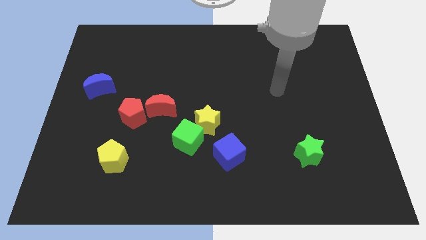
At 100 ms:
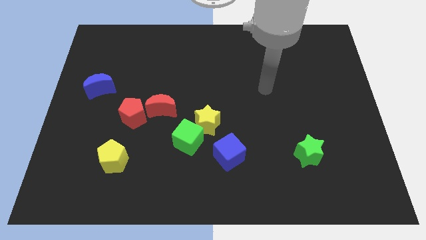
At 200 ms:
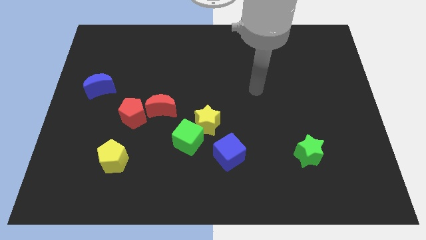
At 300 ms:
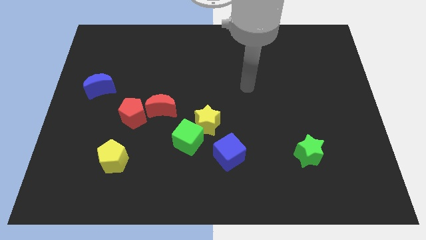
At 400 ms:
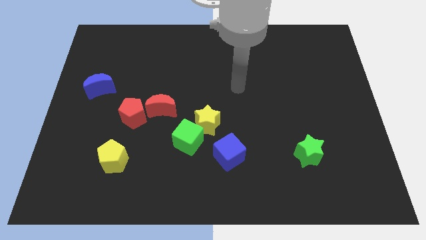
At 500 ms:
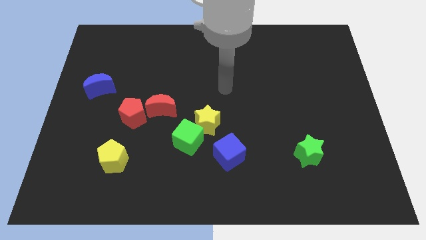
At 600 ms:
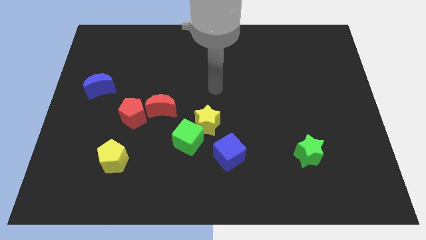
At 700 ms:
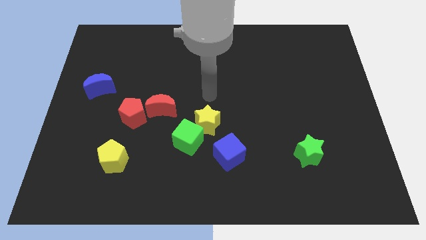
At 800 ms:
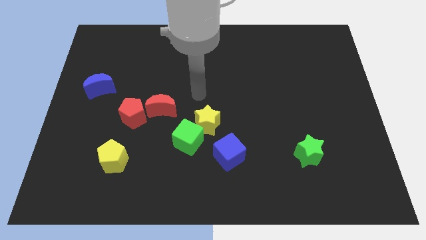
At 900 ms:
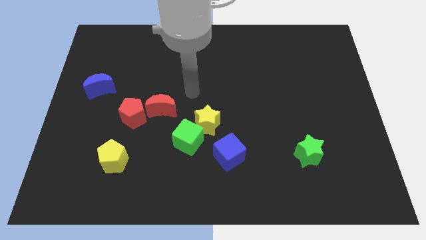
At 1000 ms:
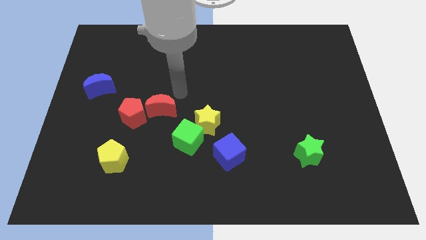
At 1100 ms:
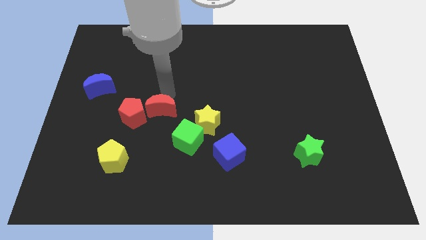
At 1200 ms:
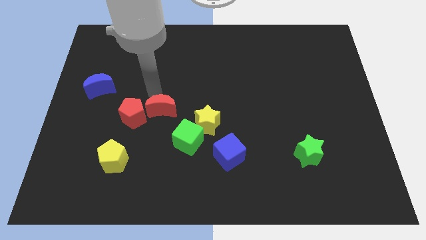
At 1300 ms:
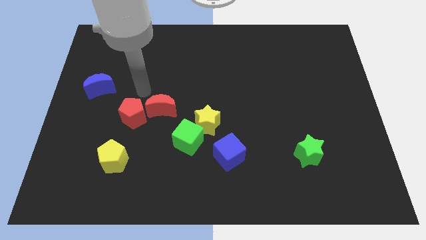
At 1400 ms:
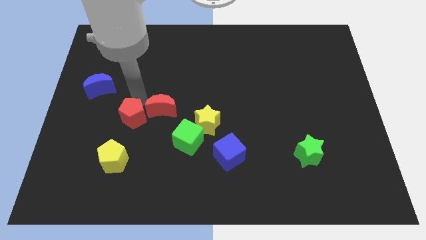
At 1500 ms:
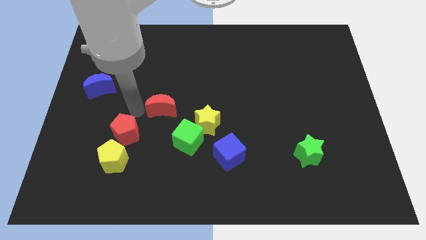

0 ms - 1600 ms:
separate the red moon from the red pentagon

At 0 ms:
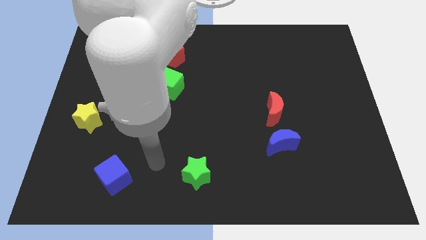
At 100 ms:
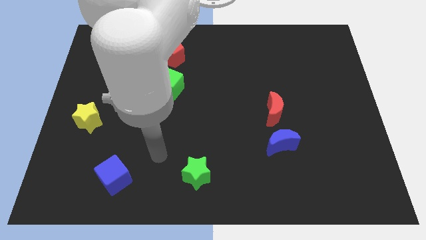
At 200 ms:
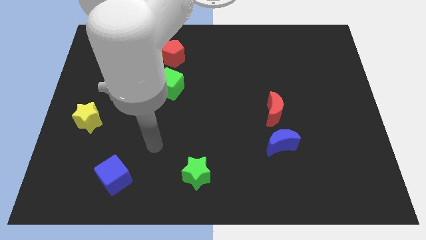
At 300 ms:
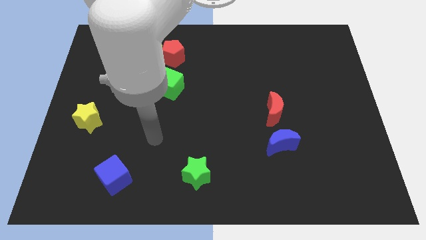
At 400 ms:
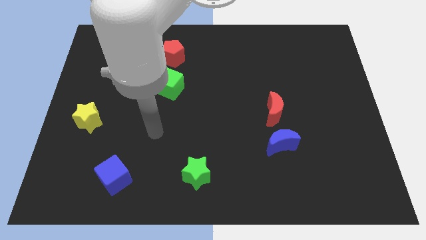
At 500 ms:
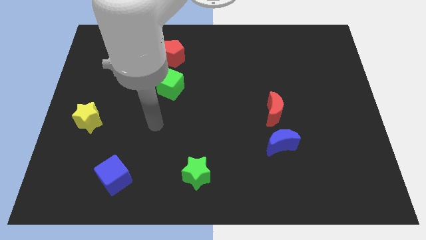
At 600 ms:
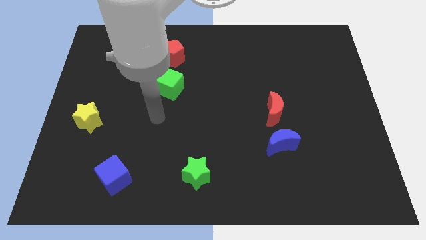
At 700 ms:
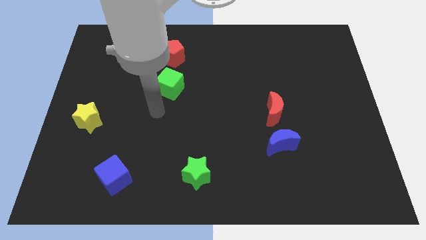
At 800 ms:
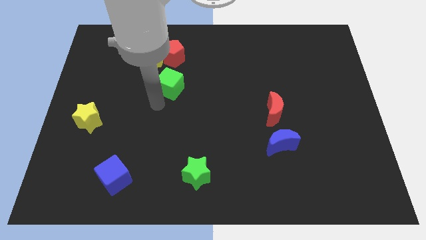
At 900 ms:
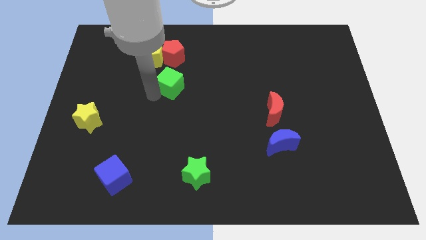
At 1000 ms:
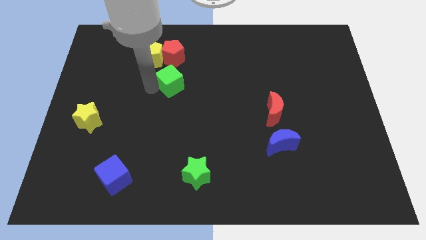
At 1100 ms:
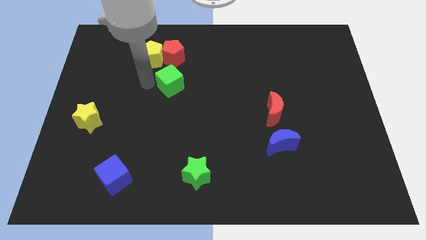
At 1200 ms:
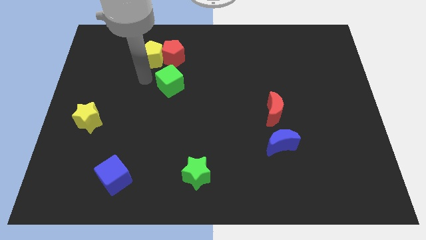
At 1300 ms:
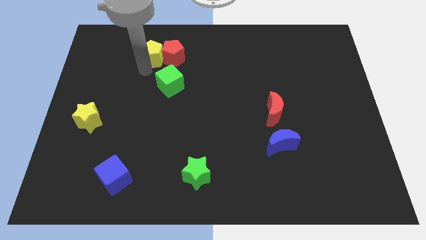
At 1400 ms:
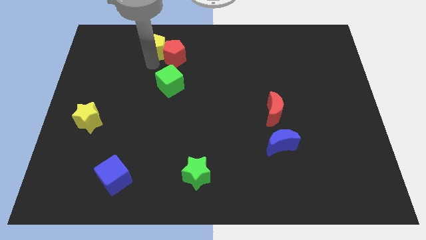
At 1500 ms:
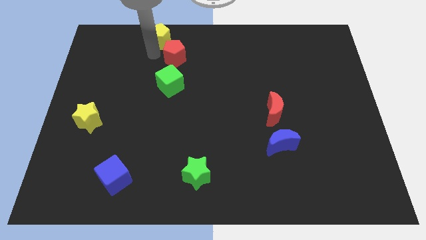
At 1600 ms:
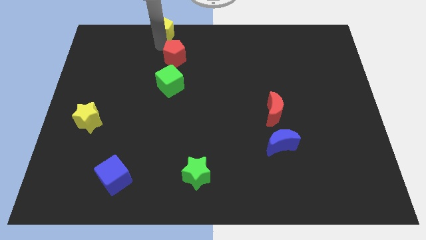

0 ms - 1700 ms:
pull the red pentagon apart from the yellow pentagon

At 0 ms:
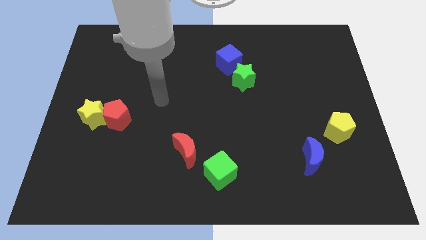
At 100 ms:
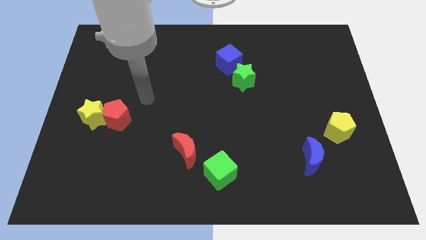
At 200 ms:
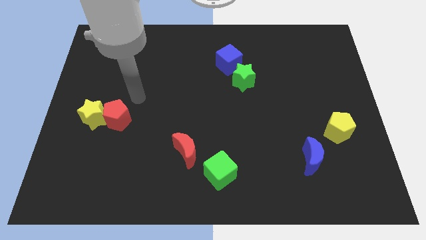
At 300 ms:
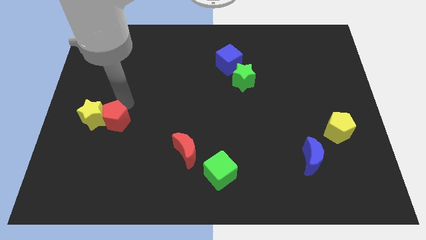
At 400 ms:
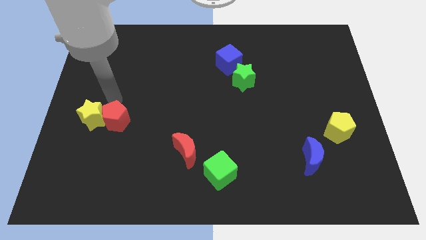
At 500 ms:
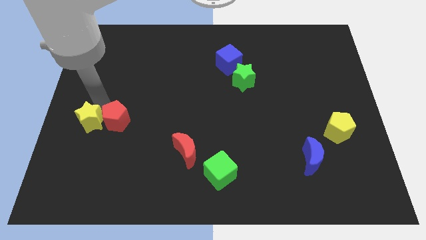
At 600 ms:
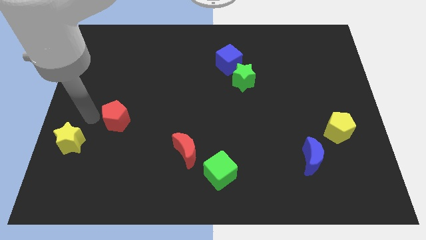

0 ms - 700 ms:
separate the red pentagon from the yellow star

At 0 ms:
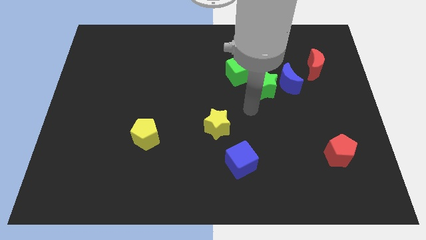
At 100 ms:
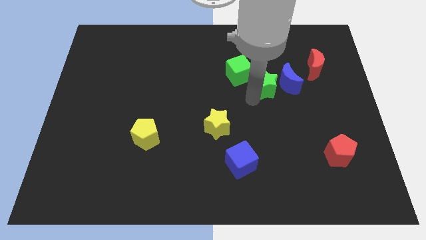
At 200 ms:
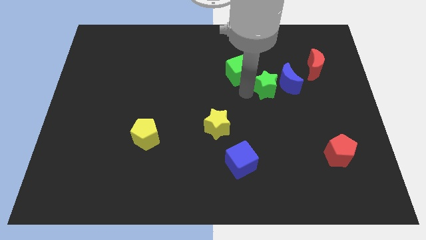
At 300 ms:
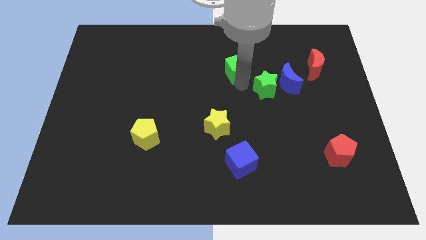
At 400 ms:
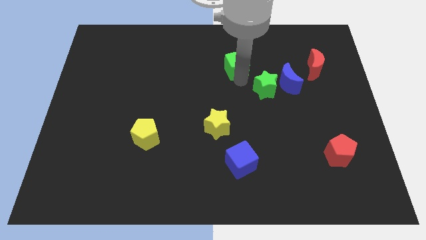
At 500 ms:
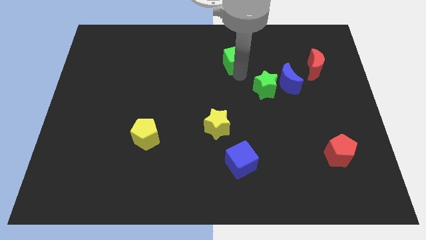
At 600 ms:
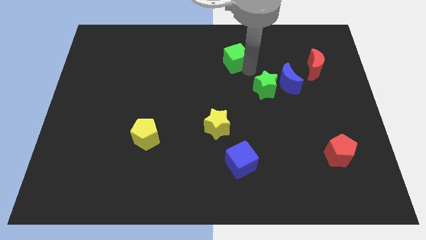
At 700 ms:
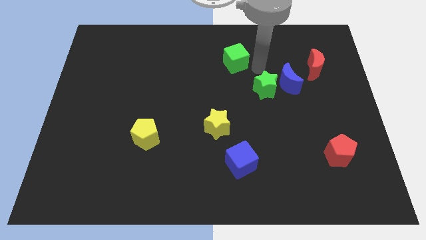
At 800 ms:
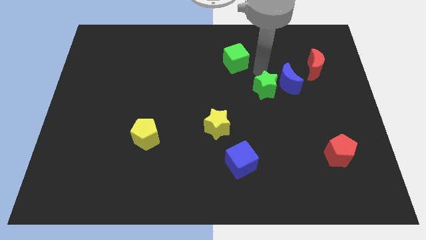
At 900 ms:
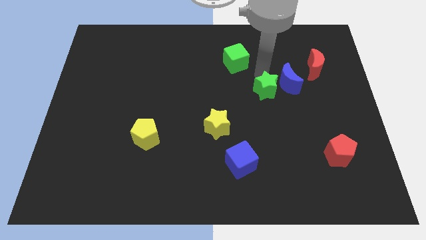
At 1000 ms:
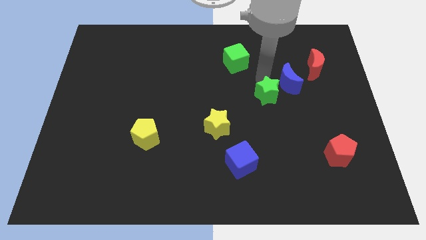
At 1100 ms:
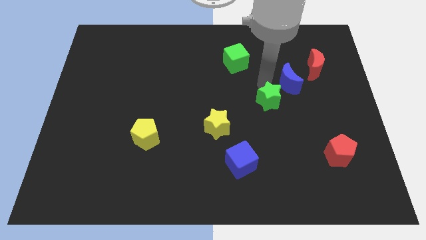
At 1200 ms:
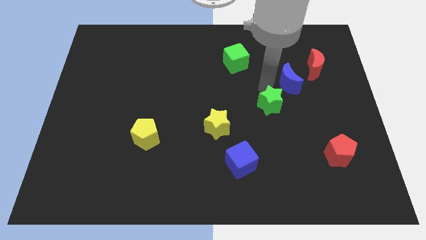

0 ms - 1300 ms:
separate the green star from the blue moon and green cube

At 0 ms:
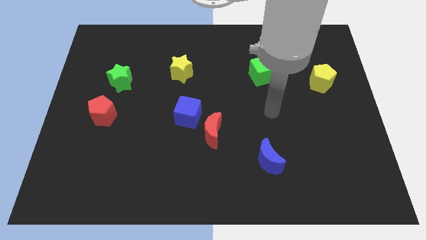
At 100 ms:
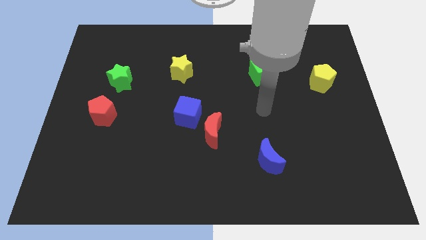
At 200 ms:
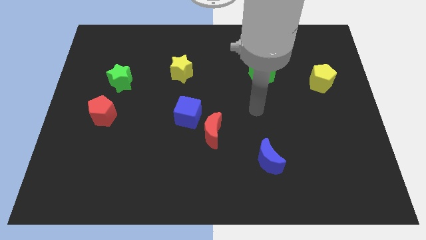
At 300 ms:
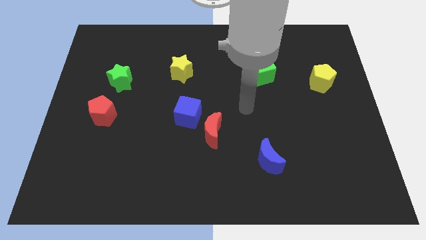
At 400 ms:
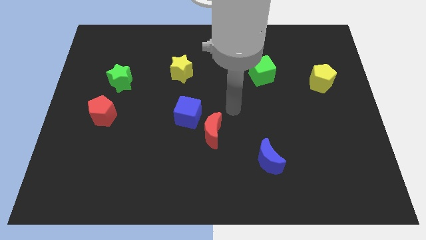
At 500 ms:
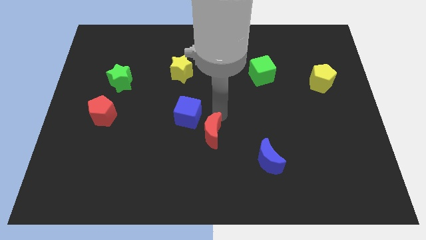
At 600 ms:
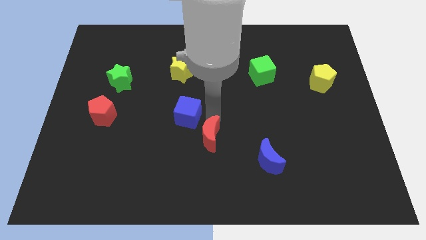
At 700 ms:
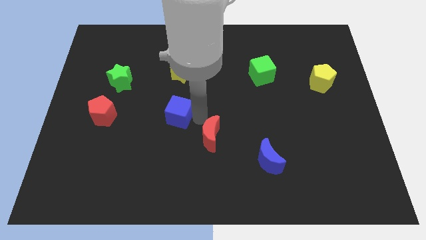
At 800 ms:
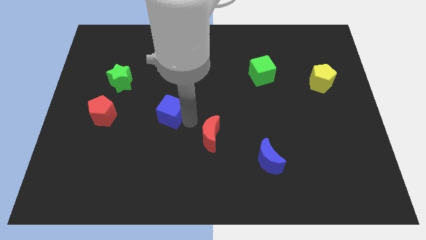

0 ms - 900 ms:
pull the red moon apart from the blue cube

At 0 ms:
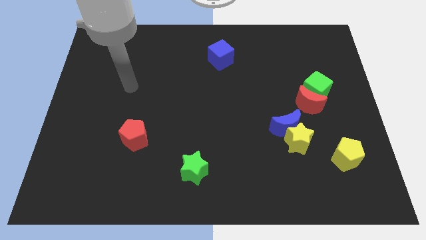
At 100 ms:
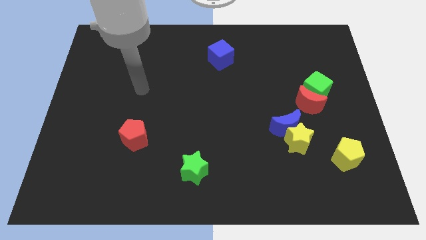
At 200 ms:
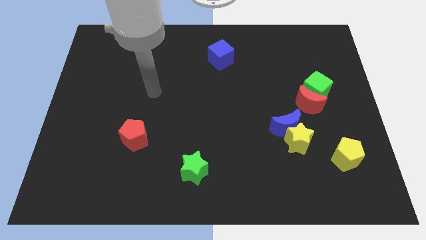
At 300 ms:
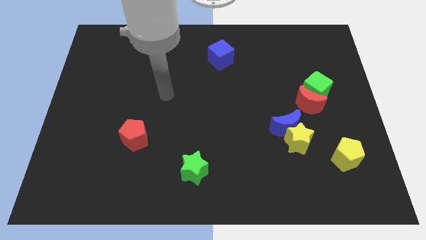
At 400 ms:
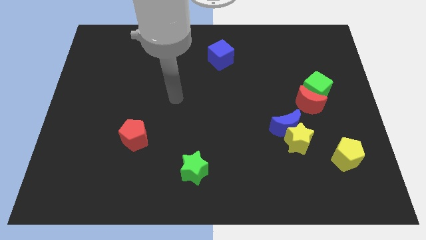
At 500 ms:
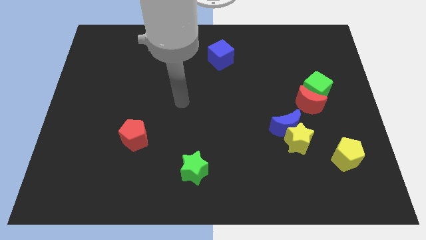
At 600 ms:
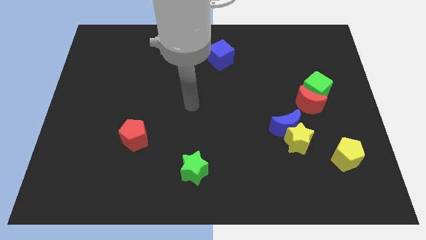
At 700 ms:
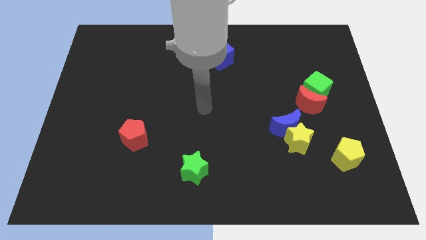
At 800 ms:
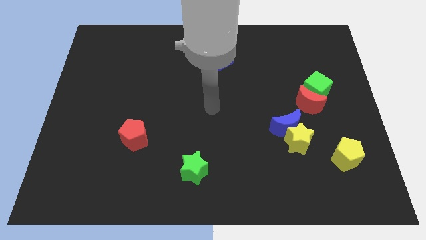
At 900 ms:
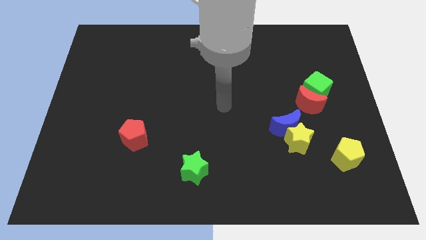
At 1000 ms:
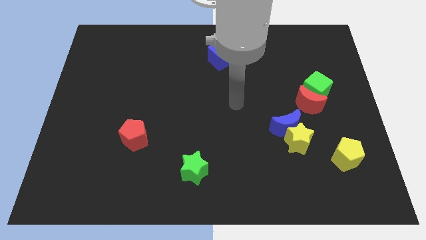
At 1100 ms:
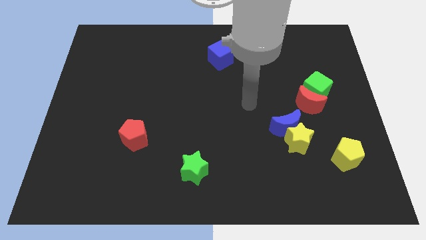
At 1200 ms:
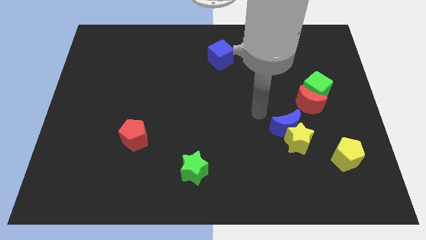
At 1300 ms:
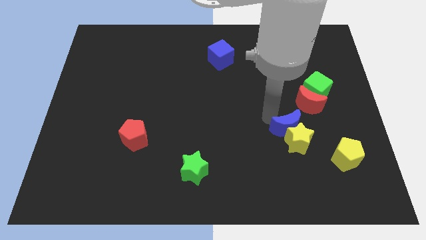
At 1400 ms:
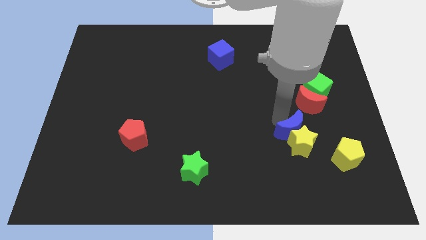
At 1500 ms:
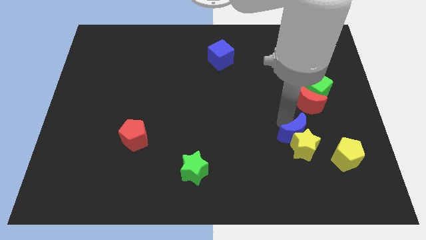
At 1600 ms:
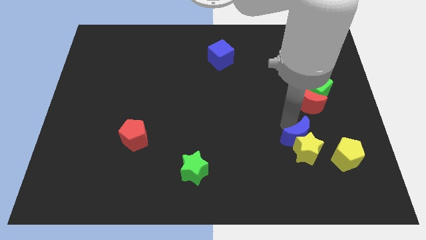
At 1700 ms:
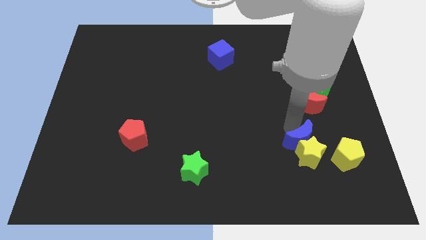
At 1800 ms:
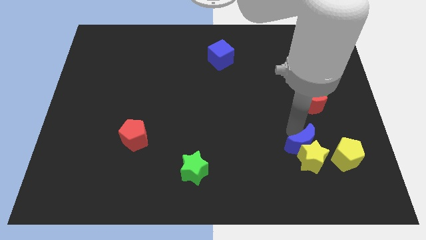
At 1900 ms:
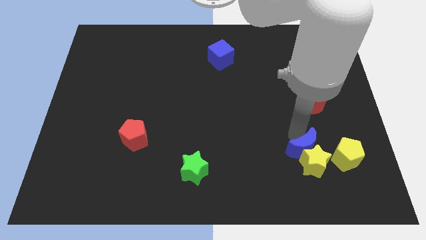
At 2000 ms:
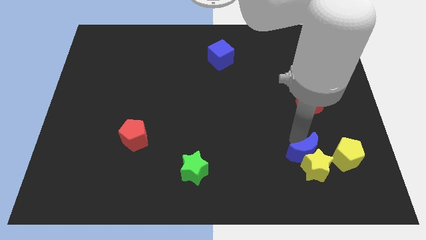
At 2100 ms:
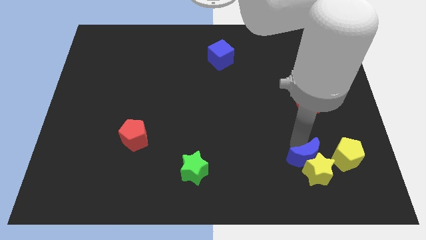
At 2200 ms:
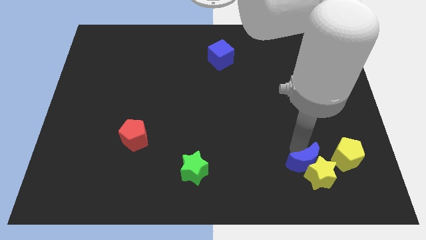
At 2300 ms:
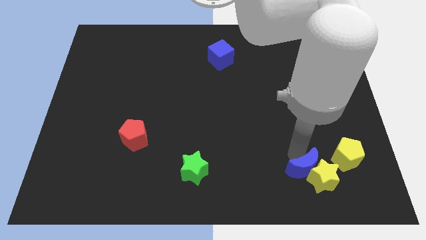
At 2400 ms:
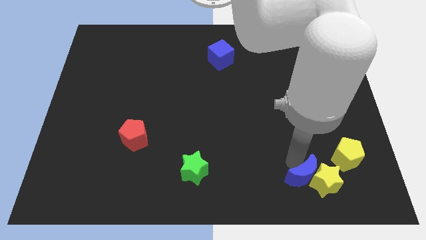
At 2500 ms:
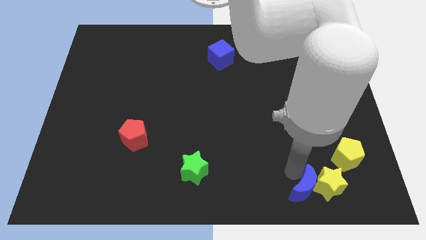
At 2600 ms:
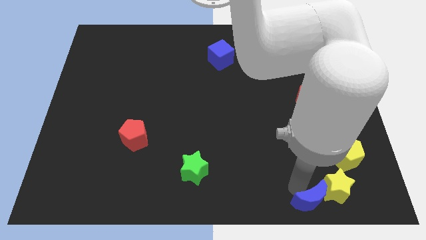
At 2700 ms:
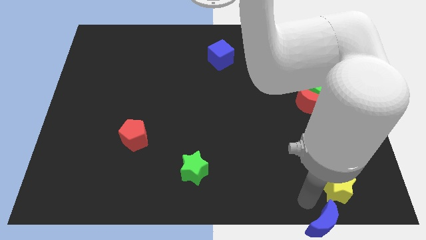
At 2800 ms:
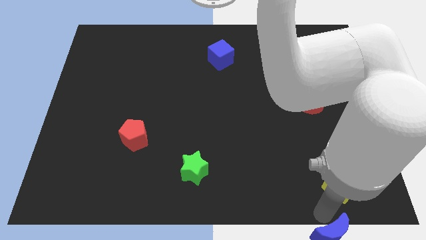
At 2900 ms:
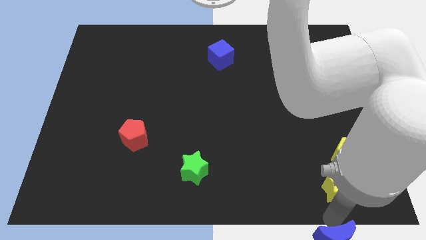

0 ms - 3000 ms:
separate the yellow star from the blue moon

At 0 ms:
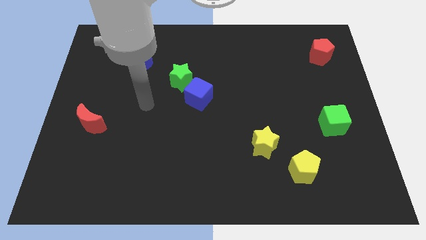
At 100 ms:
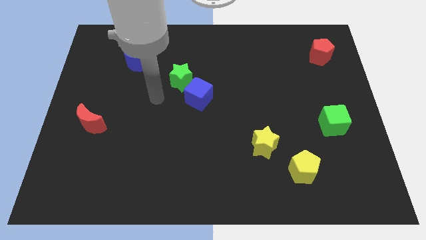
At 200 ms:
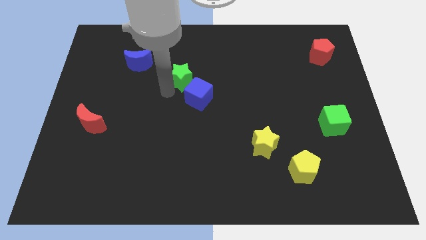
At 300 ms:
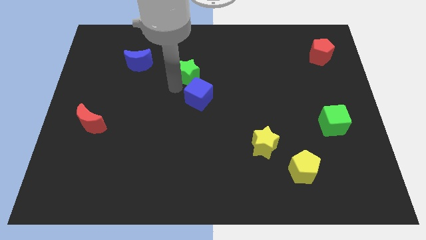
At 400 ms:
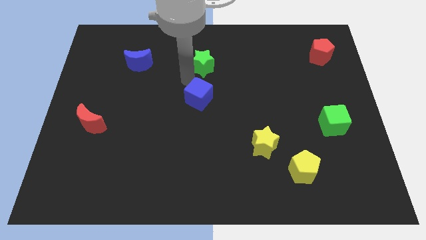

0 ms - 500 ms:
separate the blue cube from the green star
